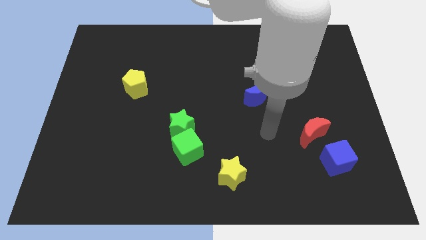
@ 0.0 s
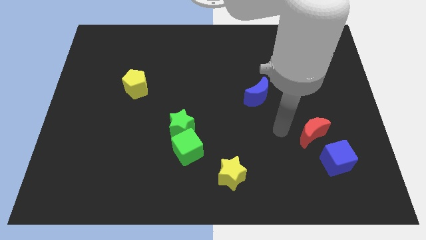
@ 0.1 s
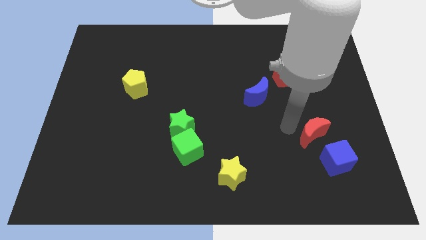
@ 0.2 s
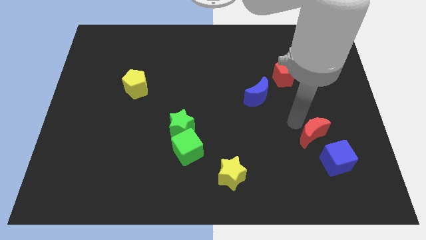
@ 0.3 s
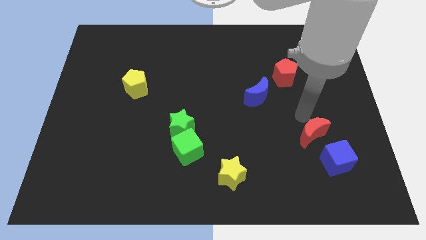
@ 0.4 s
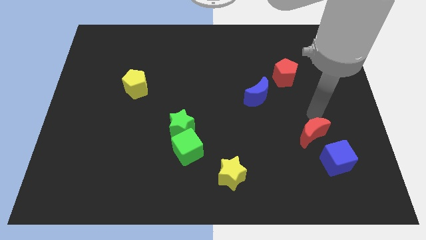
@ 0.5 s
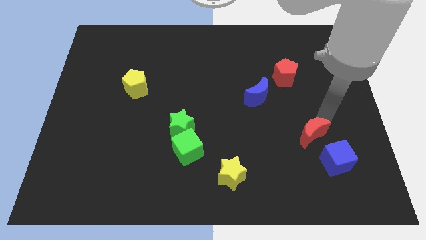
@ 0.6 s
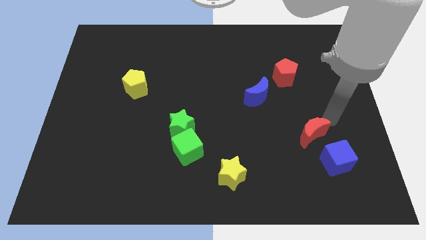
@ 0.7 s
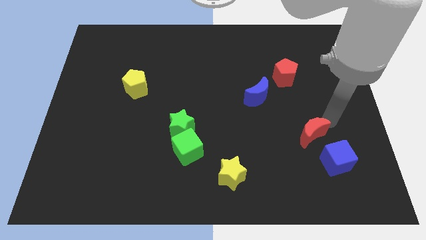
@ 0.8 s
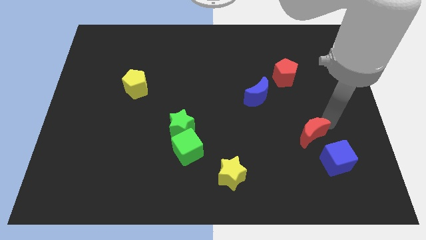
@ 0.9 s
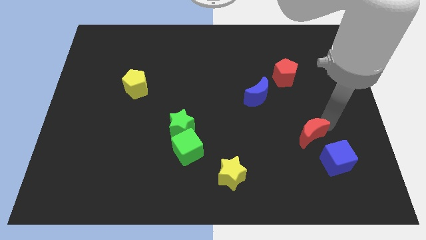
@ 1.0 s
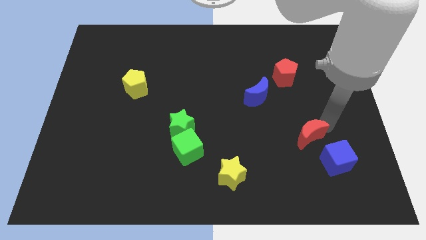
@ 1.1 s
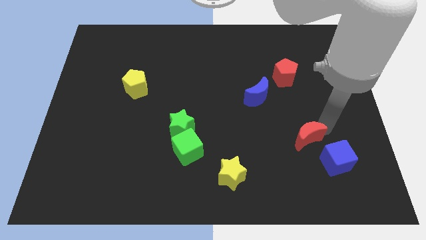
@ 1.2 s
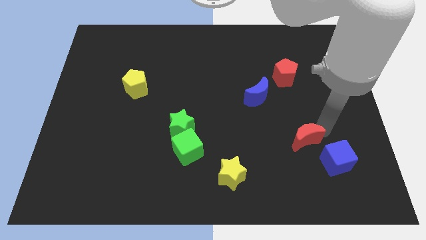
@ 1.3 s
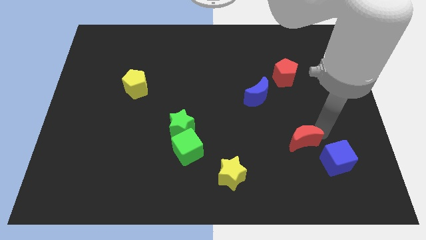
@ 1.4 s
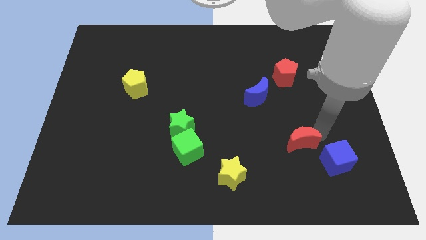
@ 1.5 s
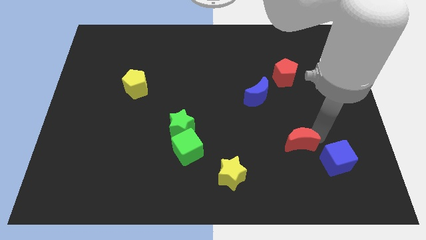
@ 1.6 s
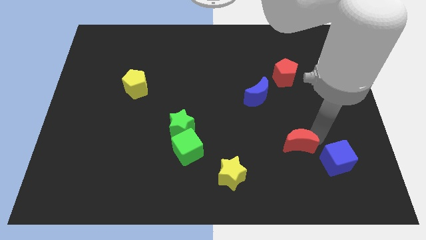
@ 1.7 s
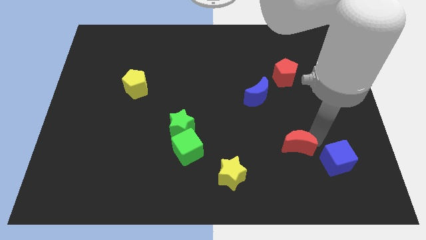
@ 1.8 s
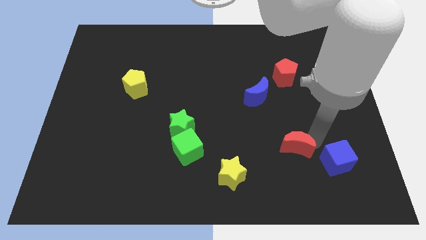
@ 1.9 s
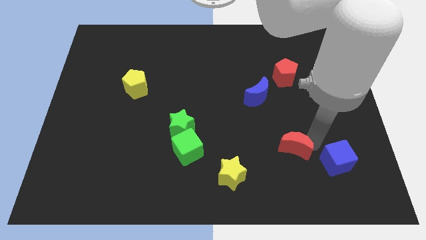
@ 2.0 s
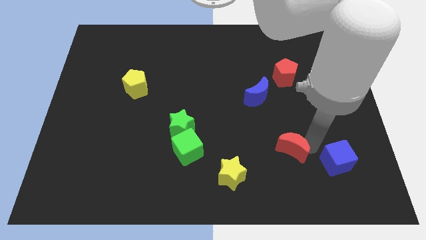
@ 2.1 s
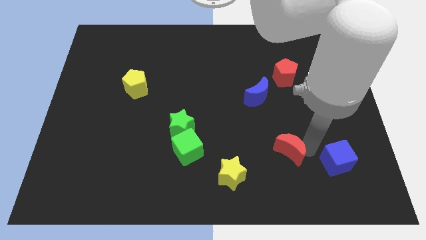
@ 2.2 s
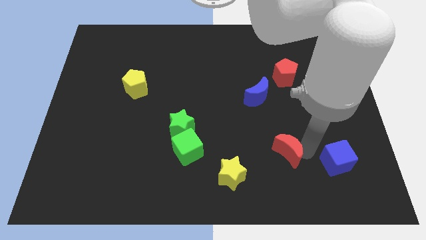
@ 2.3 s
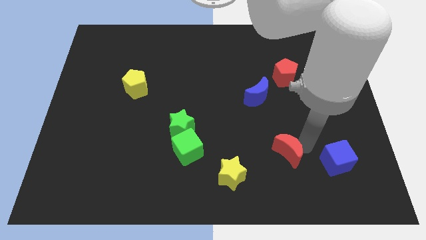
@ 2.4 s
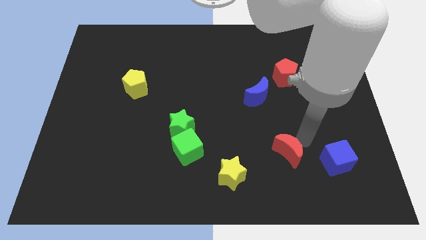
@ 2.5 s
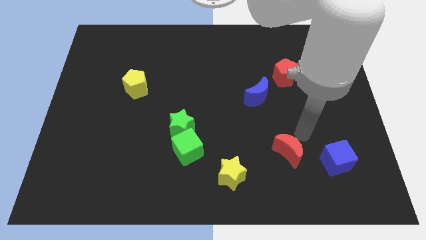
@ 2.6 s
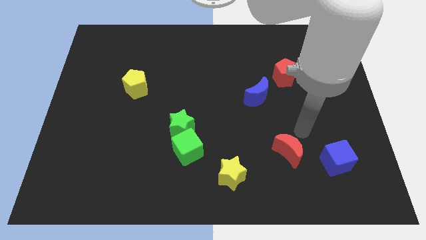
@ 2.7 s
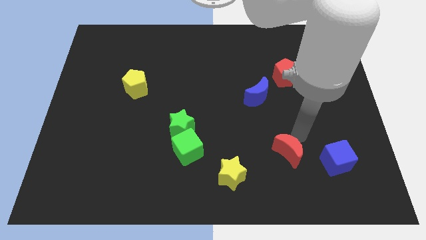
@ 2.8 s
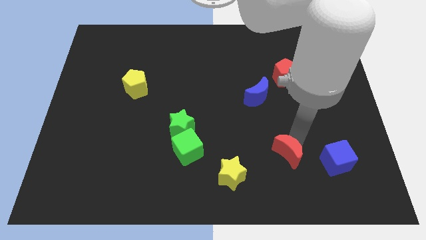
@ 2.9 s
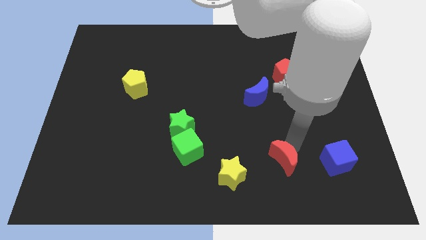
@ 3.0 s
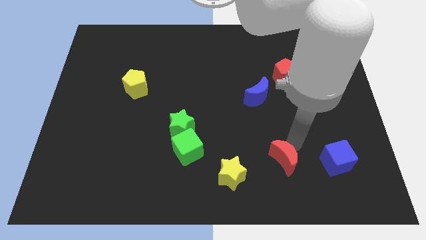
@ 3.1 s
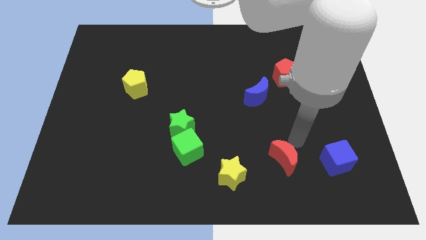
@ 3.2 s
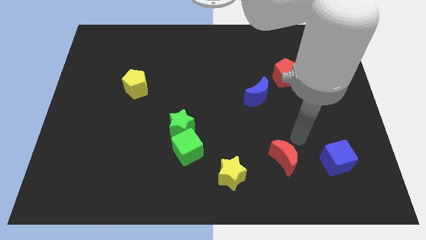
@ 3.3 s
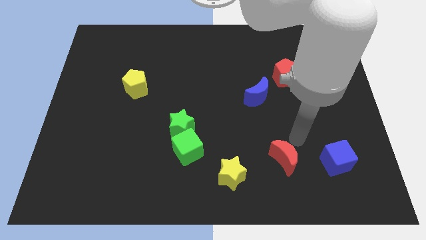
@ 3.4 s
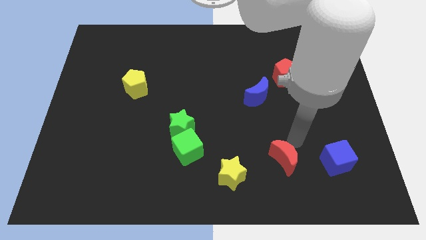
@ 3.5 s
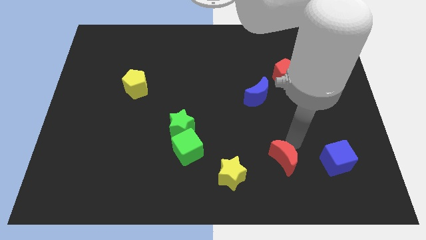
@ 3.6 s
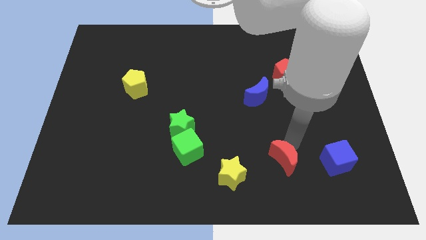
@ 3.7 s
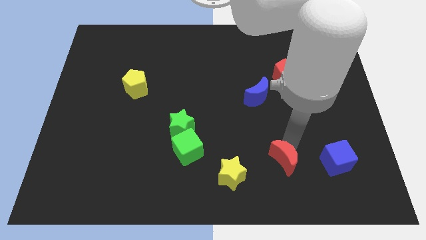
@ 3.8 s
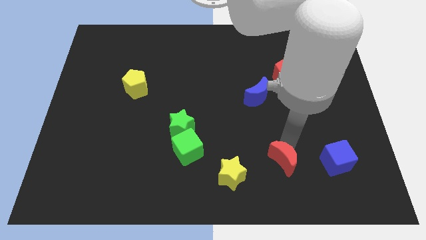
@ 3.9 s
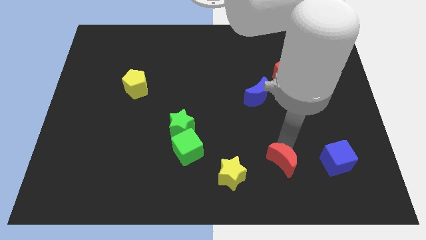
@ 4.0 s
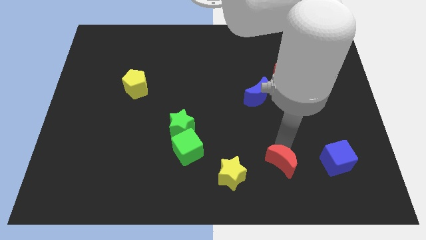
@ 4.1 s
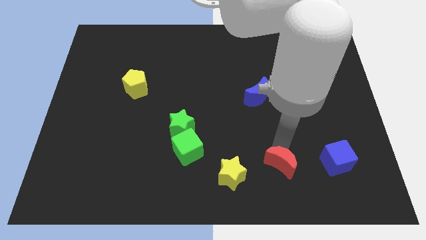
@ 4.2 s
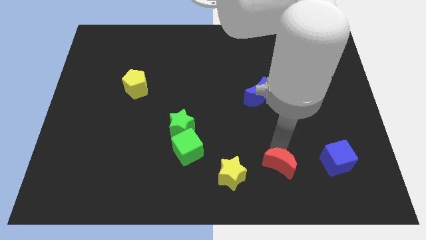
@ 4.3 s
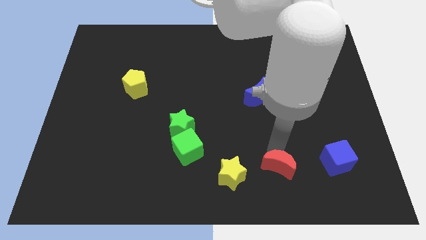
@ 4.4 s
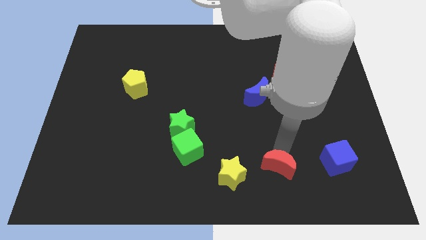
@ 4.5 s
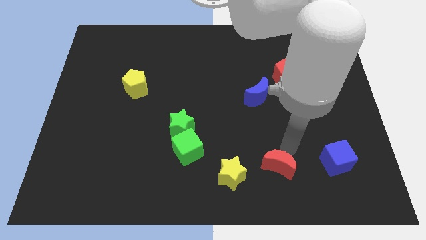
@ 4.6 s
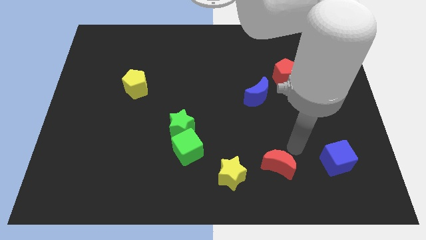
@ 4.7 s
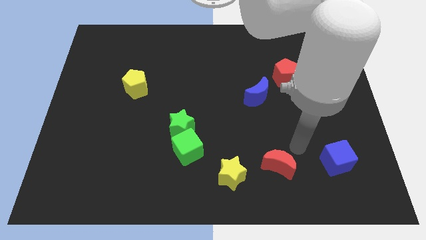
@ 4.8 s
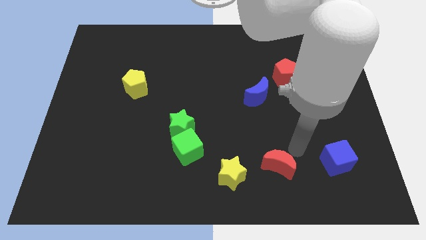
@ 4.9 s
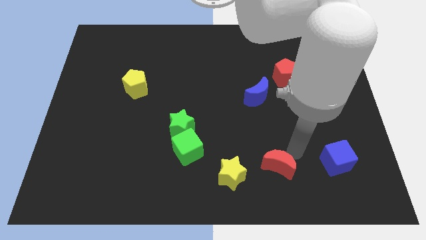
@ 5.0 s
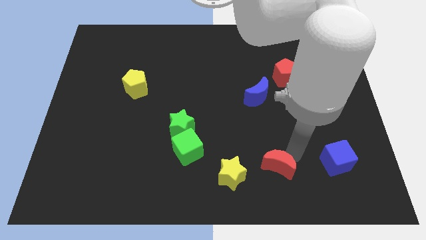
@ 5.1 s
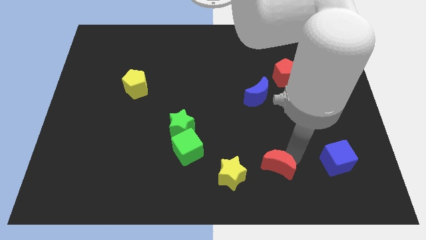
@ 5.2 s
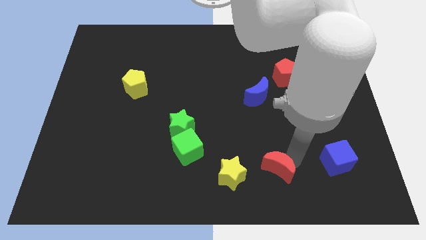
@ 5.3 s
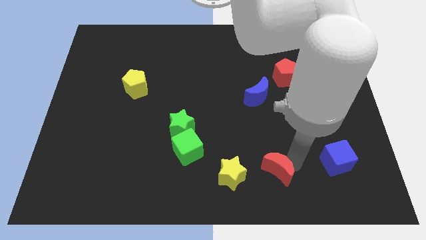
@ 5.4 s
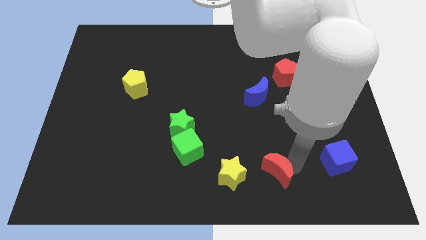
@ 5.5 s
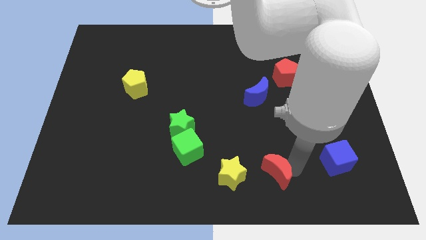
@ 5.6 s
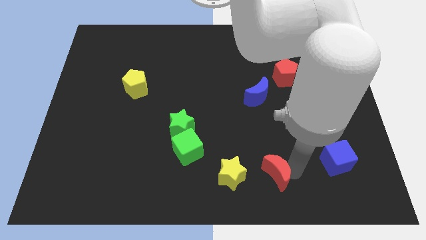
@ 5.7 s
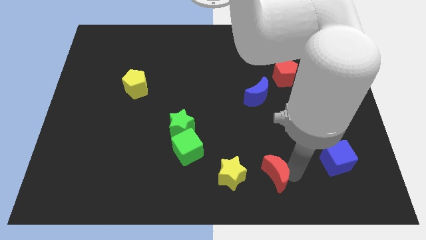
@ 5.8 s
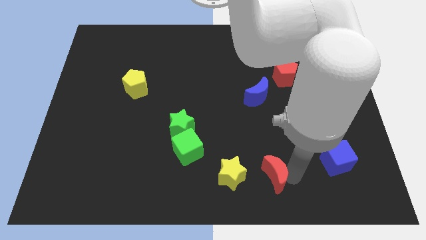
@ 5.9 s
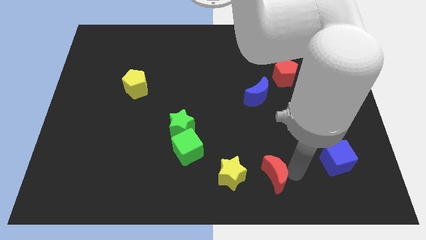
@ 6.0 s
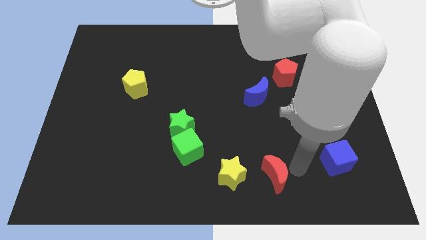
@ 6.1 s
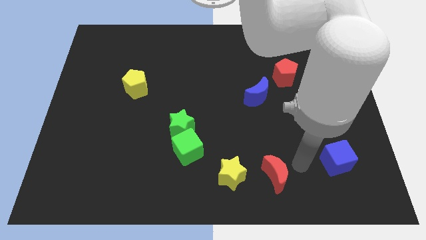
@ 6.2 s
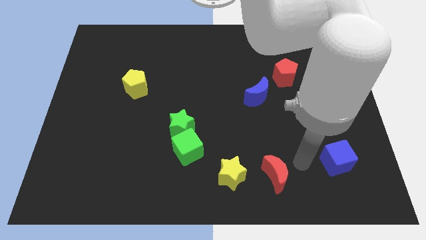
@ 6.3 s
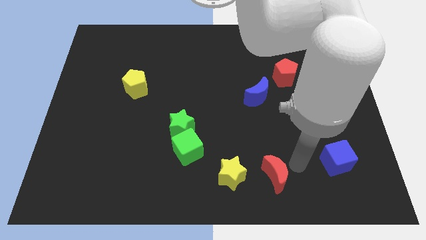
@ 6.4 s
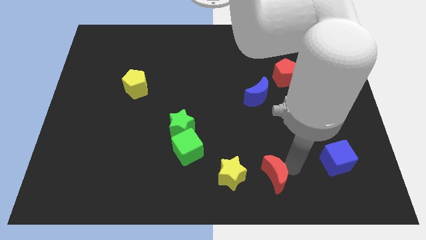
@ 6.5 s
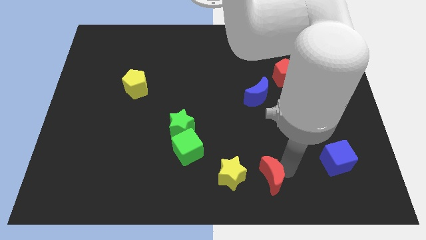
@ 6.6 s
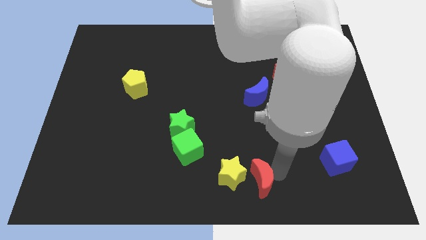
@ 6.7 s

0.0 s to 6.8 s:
put the red moon to the bottom side

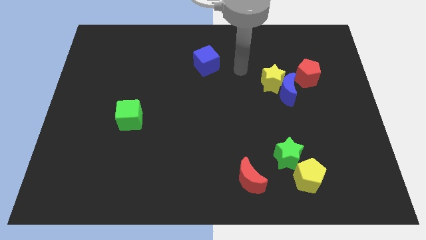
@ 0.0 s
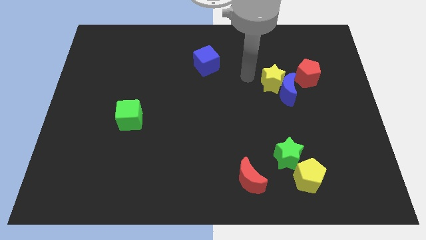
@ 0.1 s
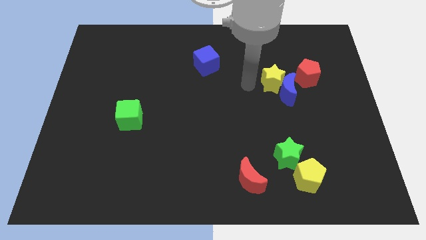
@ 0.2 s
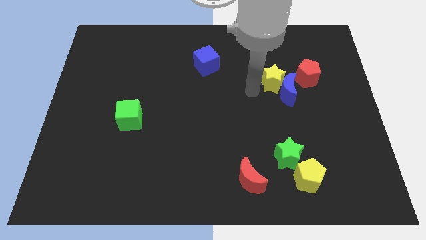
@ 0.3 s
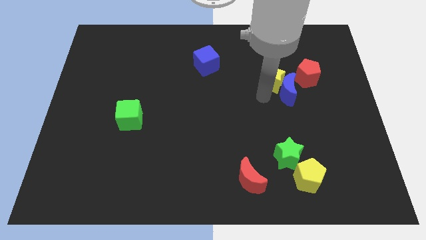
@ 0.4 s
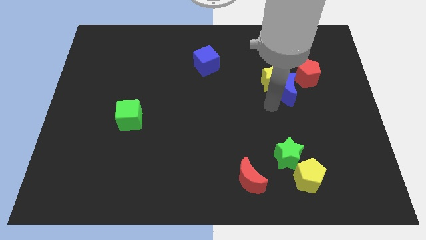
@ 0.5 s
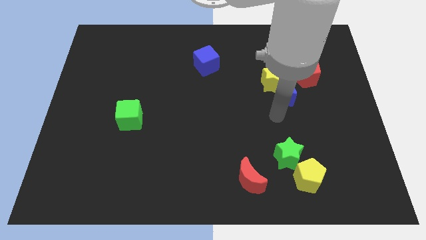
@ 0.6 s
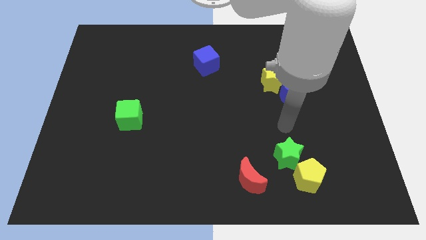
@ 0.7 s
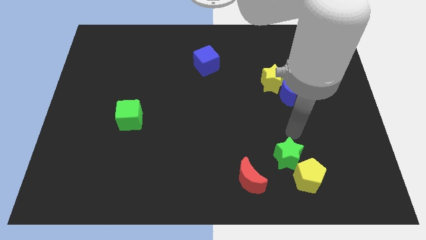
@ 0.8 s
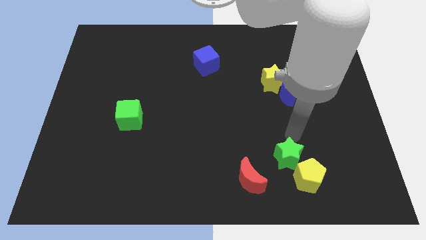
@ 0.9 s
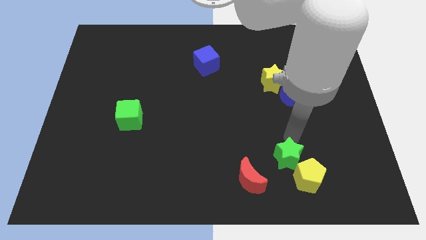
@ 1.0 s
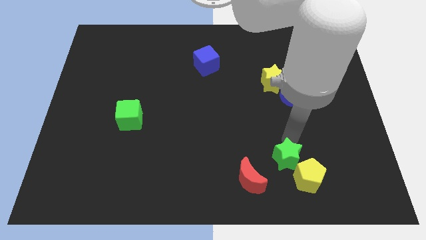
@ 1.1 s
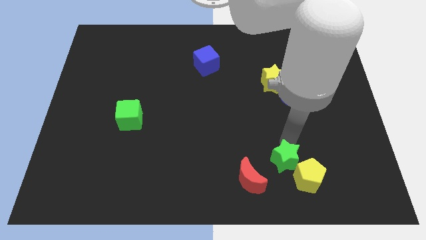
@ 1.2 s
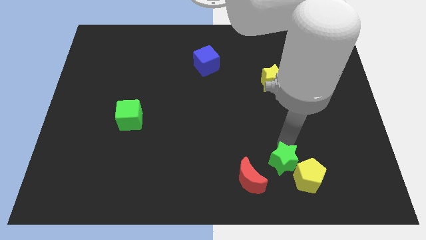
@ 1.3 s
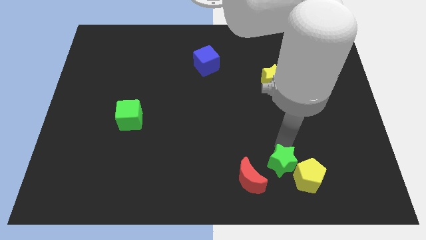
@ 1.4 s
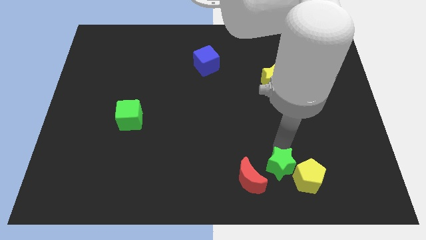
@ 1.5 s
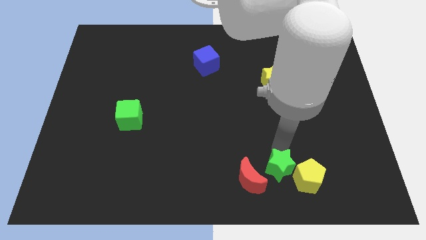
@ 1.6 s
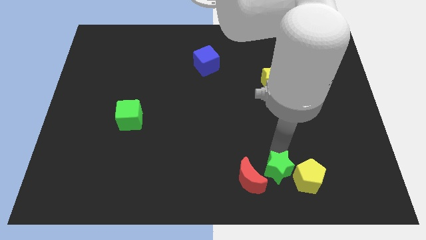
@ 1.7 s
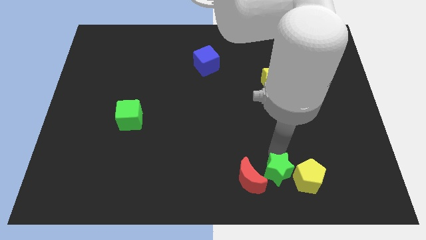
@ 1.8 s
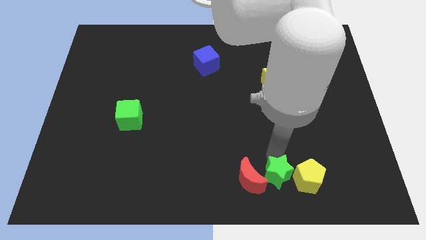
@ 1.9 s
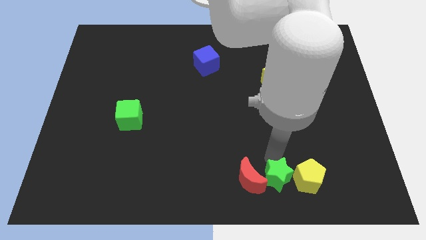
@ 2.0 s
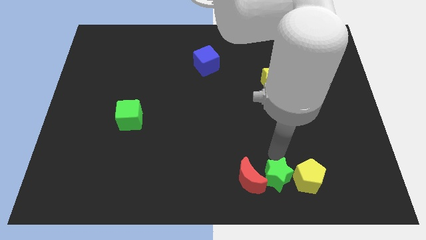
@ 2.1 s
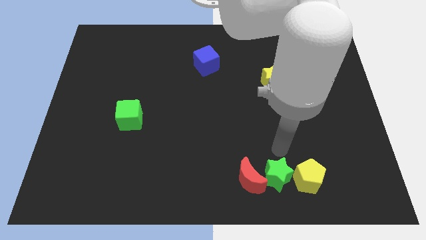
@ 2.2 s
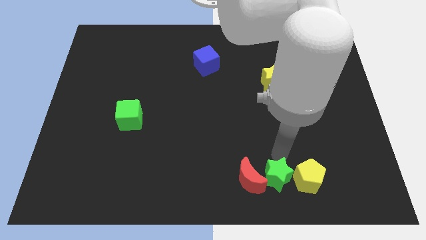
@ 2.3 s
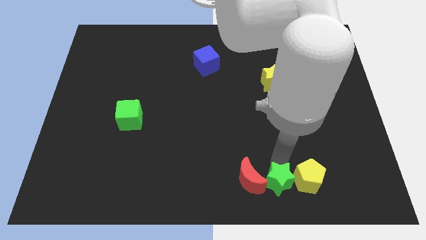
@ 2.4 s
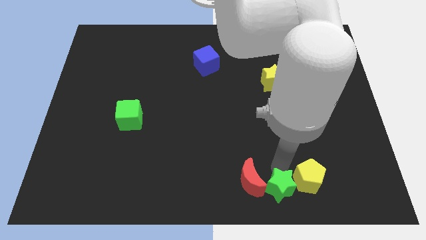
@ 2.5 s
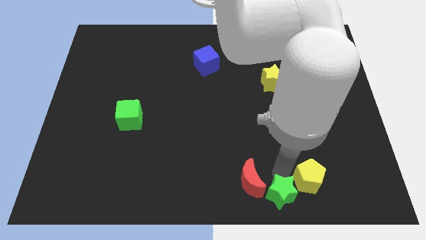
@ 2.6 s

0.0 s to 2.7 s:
move the green star to the bottom side
